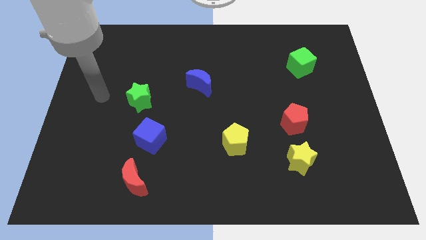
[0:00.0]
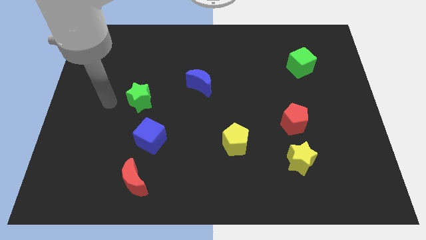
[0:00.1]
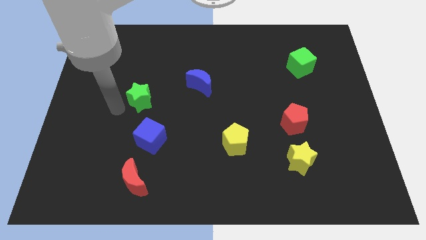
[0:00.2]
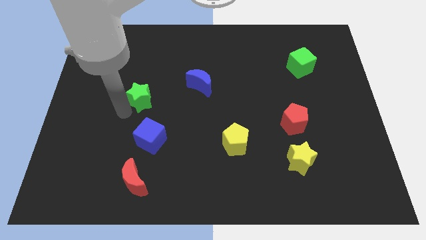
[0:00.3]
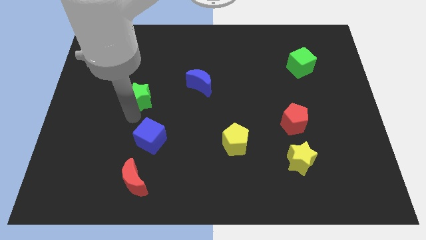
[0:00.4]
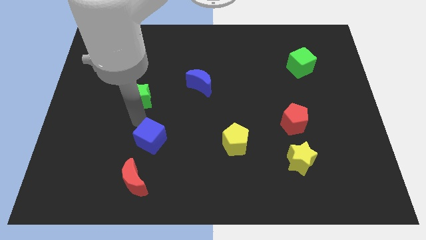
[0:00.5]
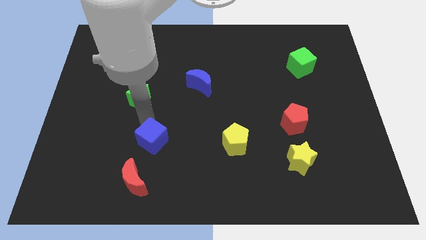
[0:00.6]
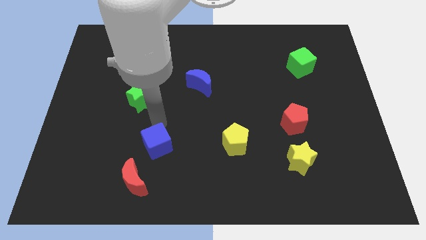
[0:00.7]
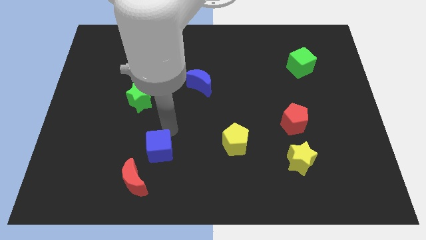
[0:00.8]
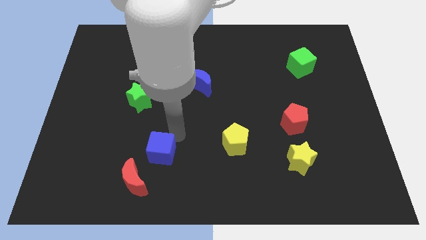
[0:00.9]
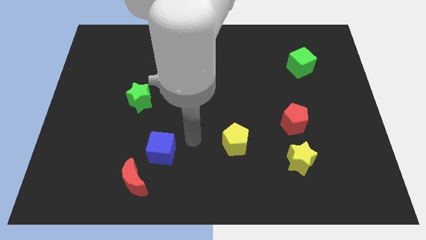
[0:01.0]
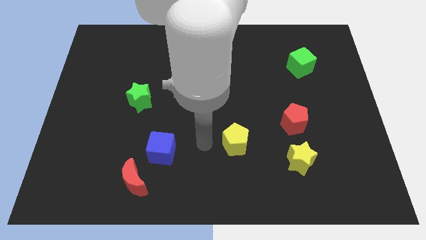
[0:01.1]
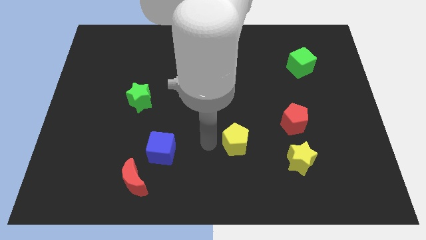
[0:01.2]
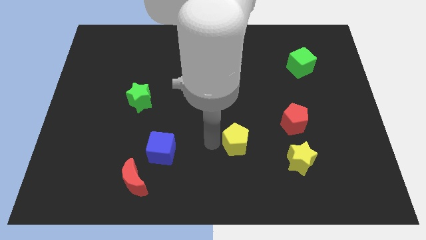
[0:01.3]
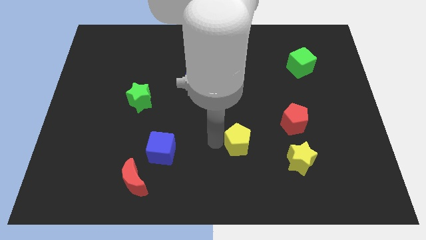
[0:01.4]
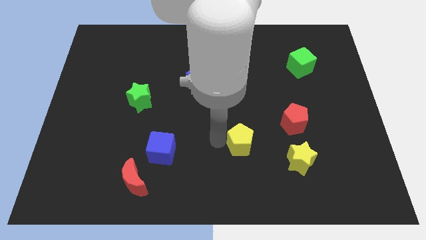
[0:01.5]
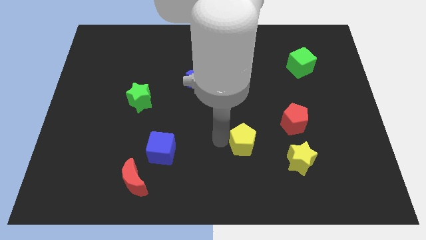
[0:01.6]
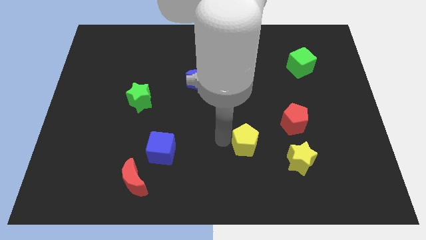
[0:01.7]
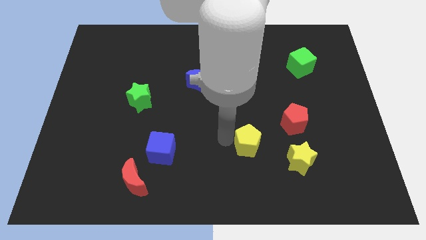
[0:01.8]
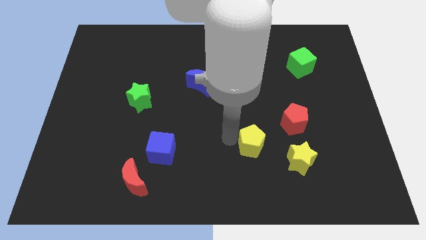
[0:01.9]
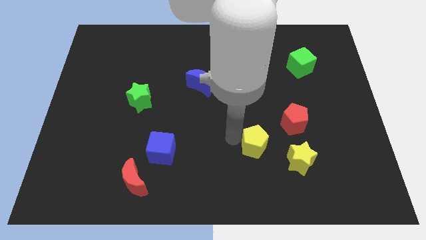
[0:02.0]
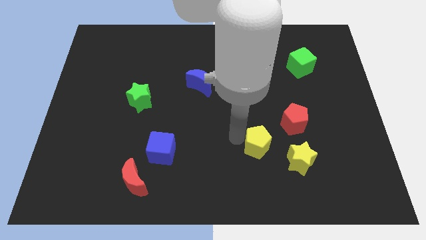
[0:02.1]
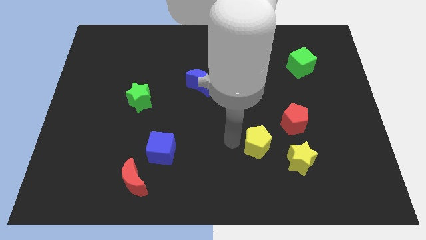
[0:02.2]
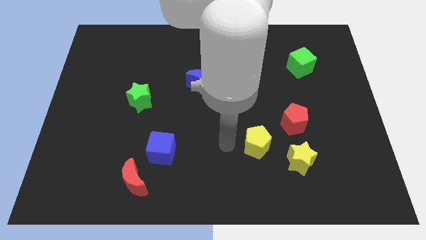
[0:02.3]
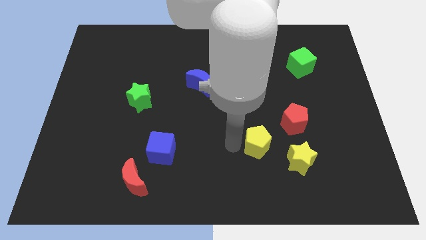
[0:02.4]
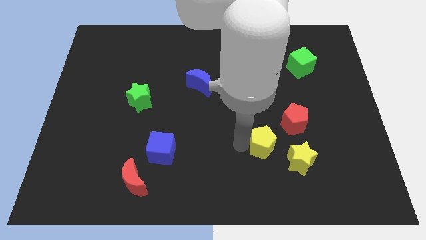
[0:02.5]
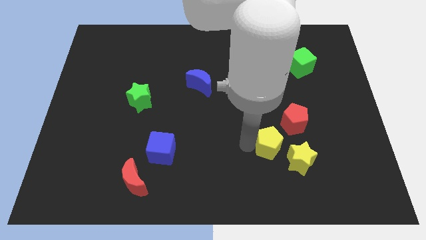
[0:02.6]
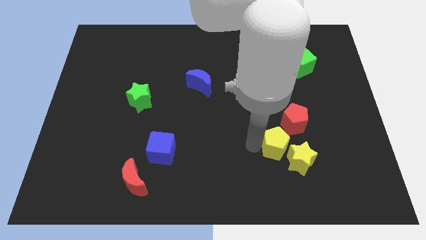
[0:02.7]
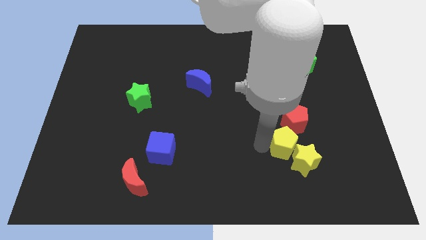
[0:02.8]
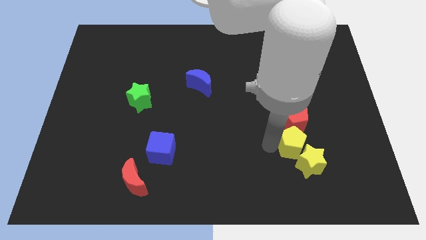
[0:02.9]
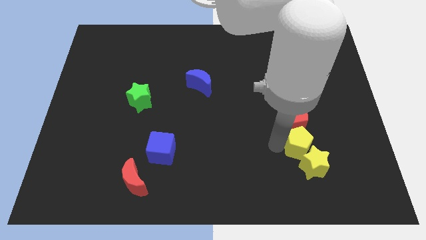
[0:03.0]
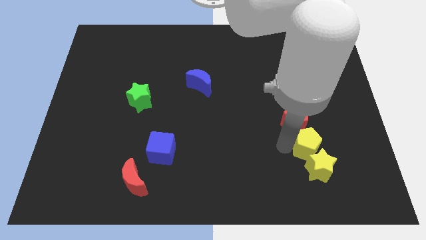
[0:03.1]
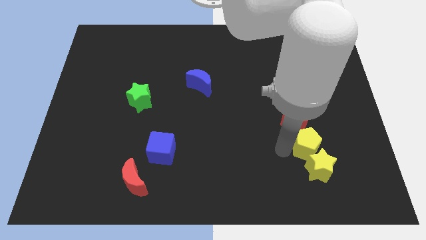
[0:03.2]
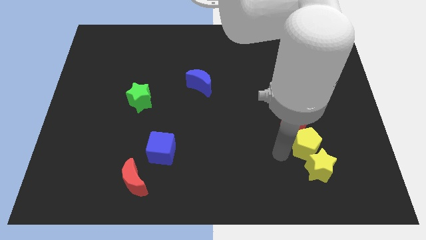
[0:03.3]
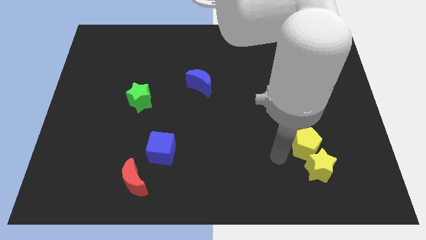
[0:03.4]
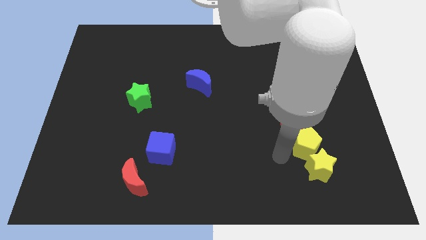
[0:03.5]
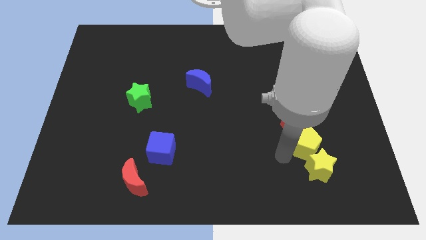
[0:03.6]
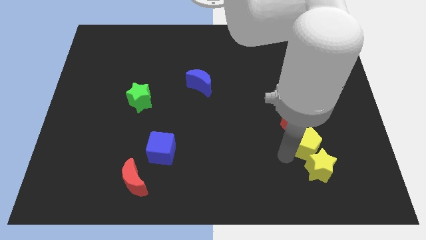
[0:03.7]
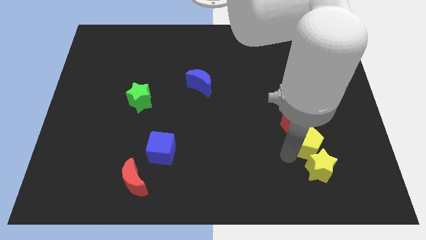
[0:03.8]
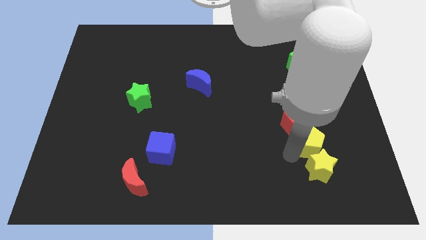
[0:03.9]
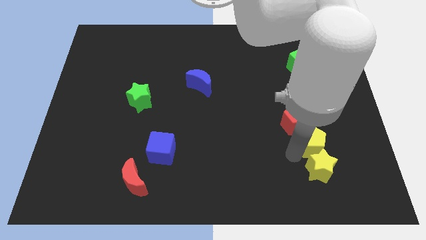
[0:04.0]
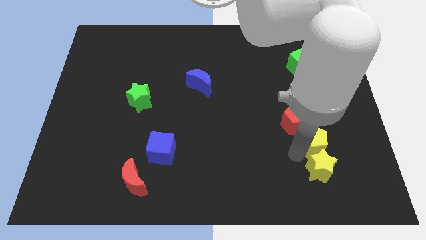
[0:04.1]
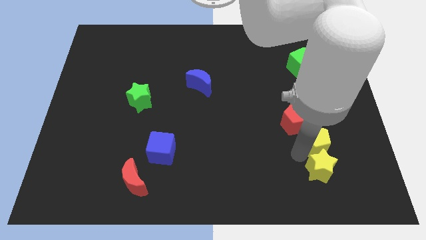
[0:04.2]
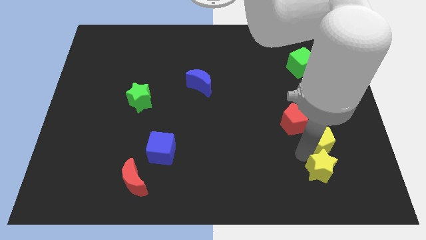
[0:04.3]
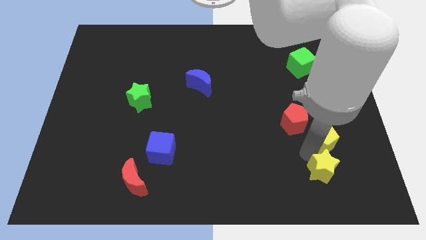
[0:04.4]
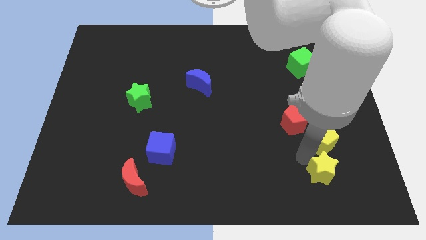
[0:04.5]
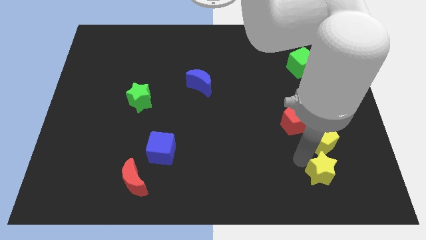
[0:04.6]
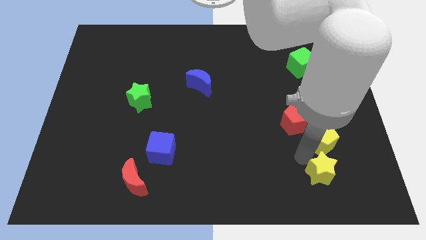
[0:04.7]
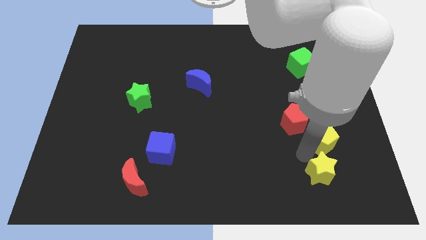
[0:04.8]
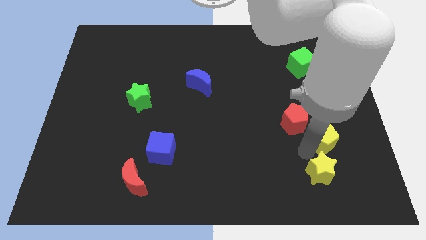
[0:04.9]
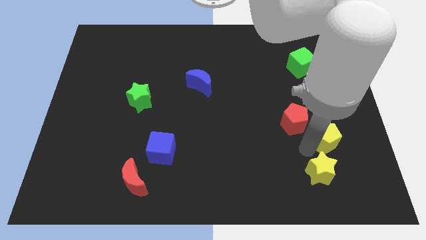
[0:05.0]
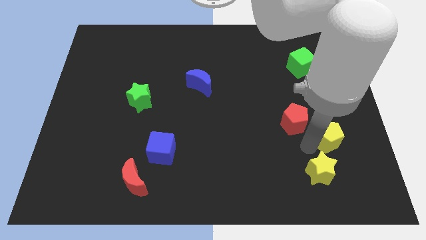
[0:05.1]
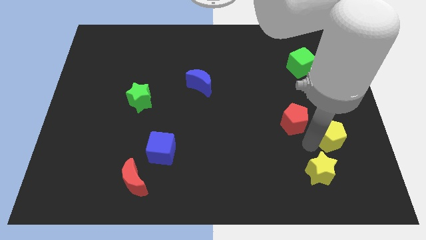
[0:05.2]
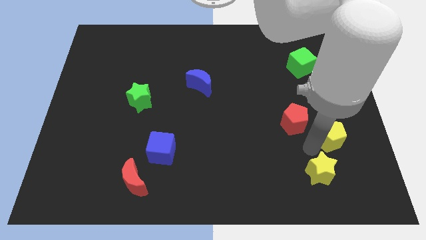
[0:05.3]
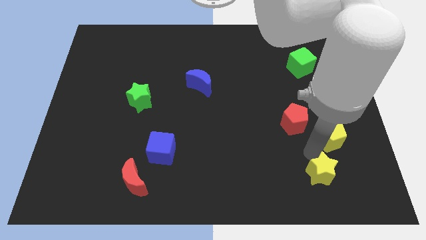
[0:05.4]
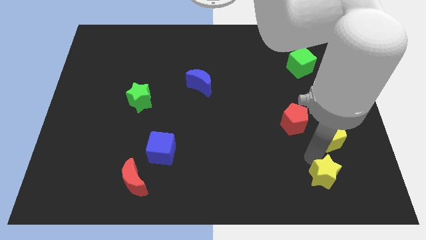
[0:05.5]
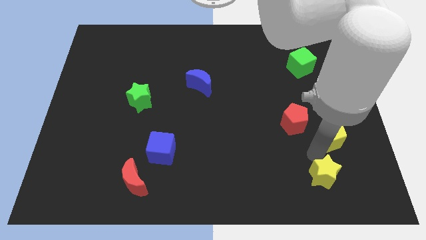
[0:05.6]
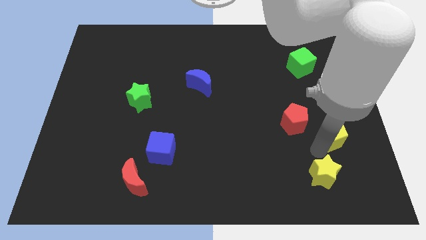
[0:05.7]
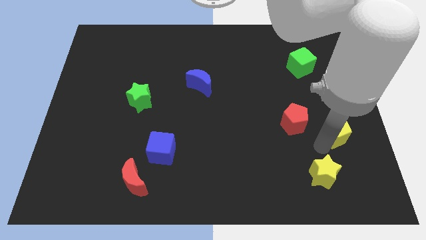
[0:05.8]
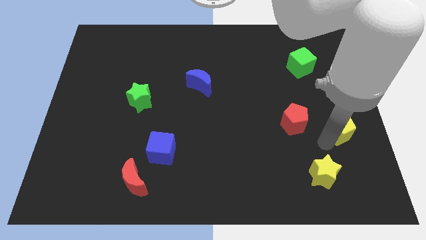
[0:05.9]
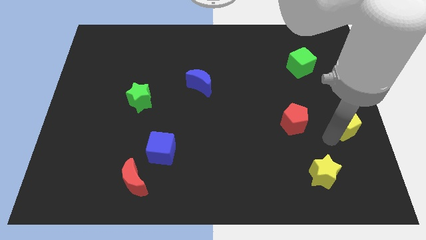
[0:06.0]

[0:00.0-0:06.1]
put the yellow pentagon to the right side
